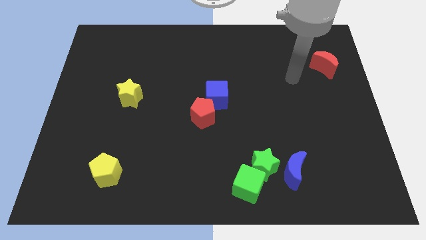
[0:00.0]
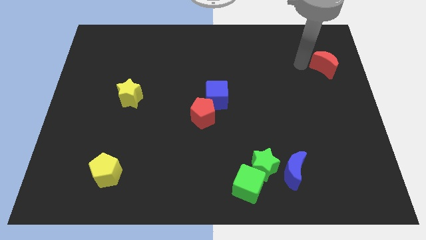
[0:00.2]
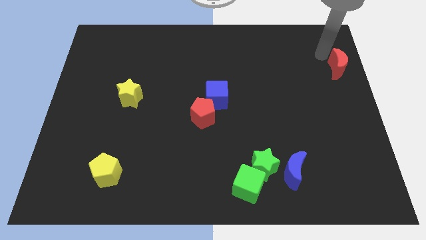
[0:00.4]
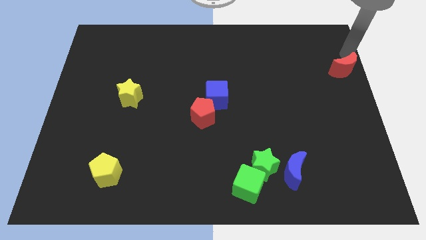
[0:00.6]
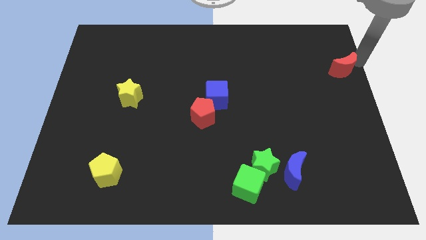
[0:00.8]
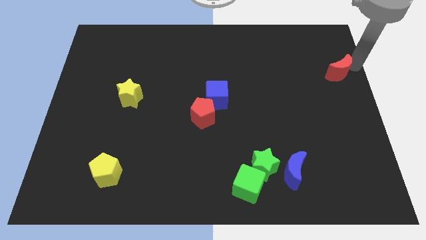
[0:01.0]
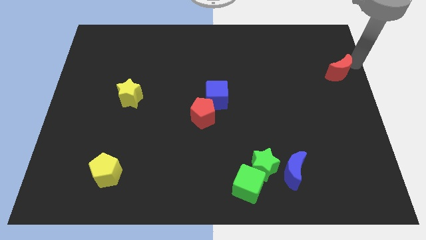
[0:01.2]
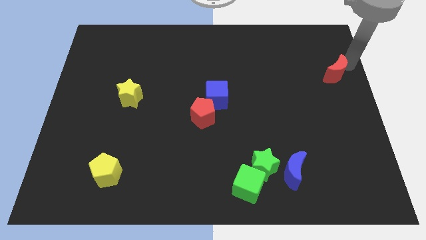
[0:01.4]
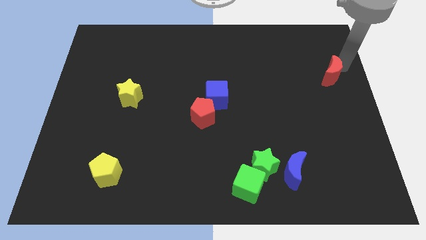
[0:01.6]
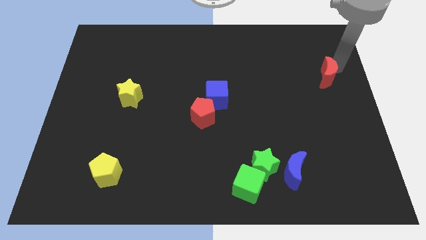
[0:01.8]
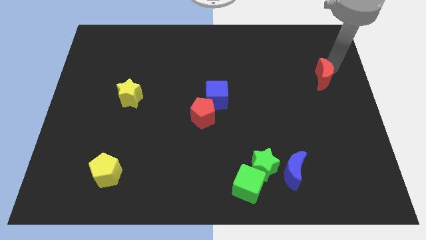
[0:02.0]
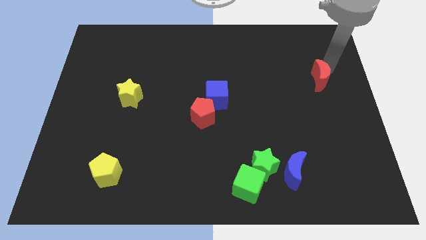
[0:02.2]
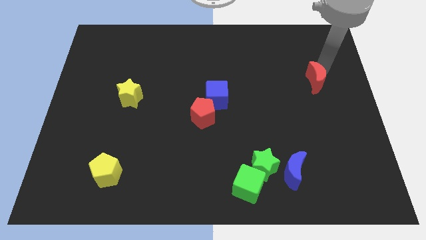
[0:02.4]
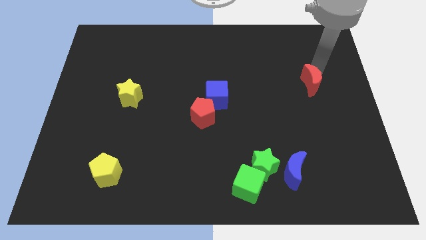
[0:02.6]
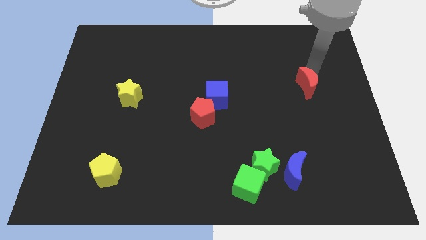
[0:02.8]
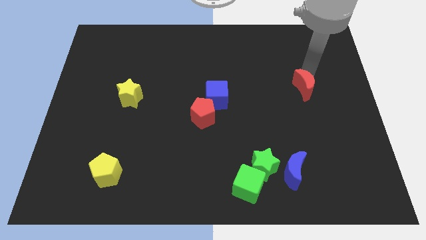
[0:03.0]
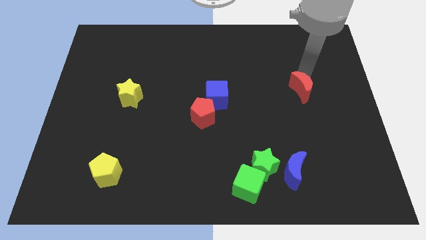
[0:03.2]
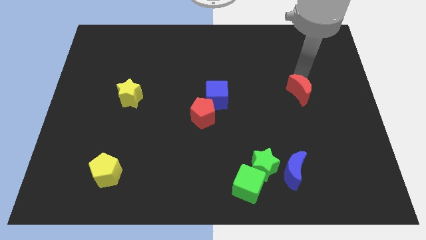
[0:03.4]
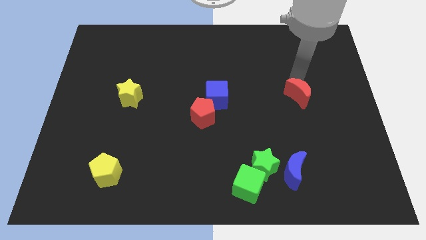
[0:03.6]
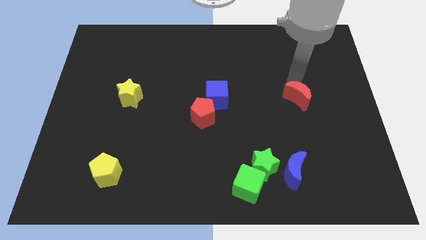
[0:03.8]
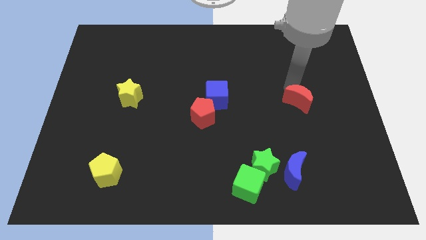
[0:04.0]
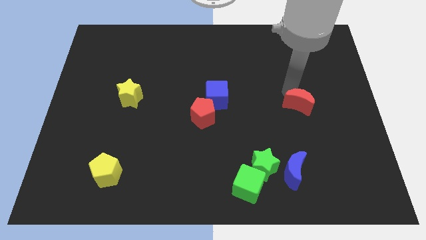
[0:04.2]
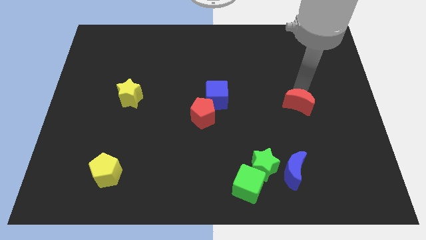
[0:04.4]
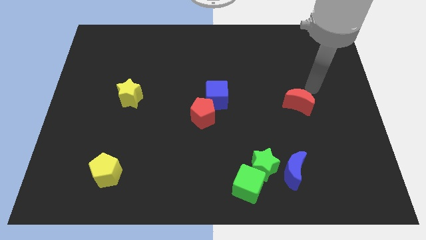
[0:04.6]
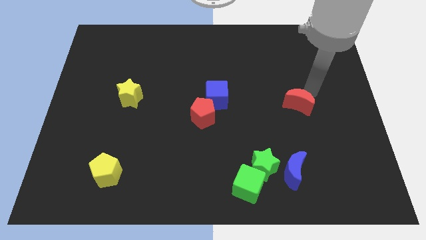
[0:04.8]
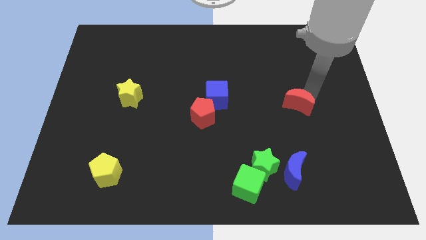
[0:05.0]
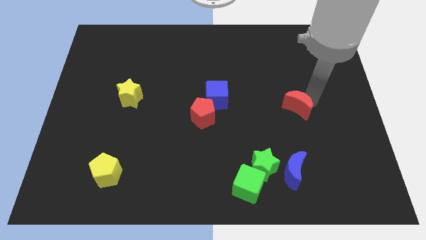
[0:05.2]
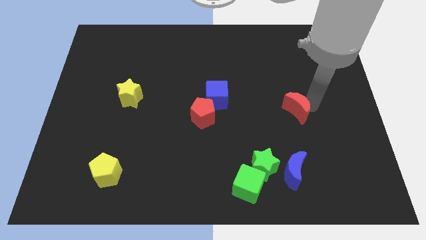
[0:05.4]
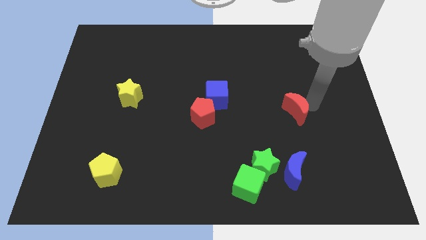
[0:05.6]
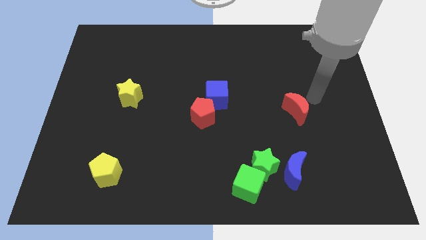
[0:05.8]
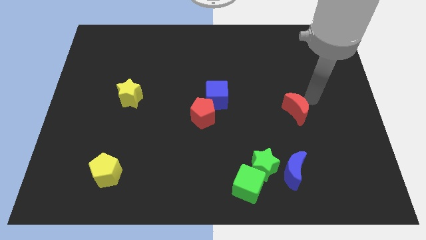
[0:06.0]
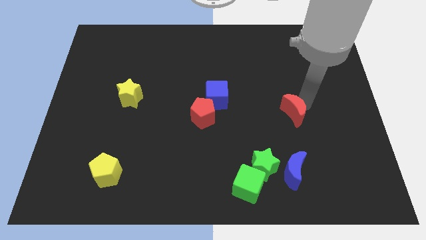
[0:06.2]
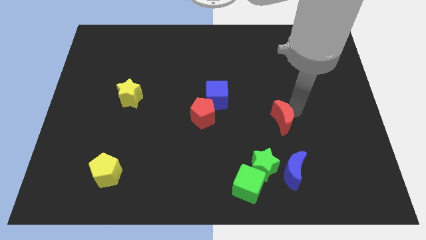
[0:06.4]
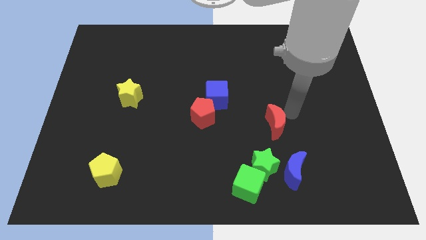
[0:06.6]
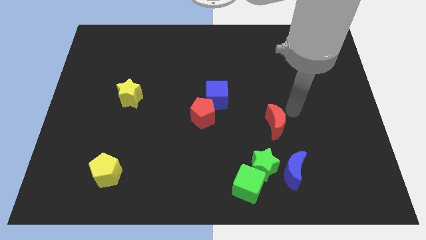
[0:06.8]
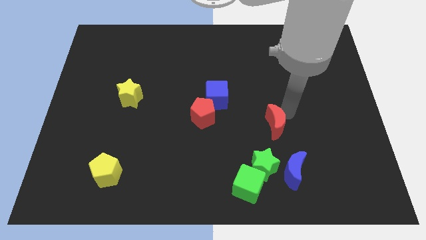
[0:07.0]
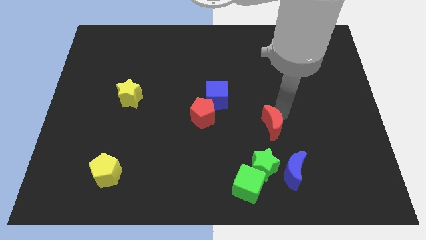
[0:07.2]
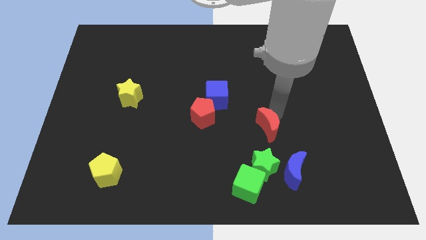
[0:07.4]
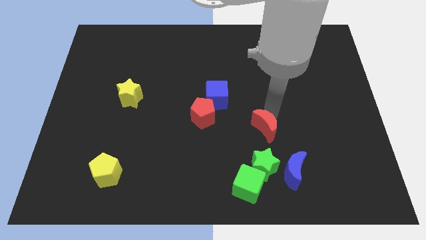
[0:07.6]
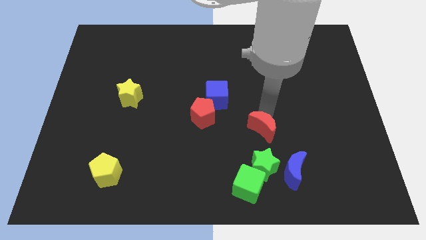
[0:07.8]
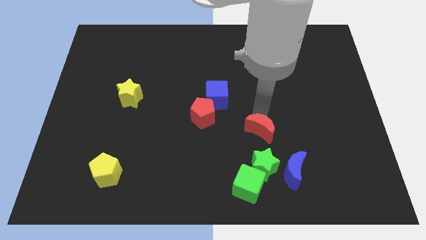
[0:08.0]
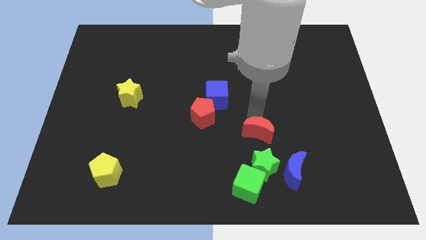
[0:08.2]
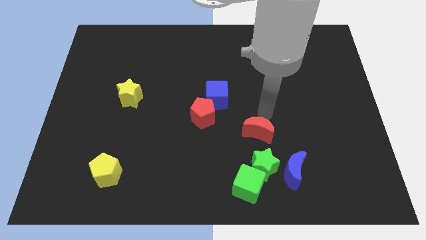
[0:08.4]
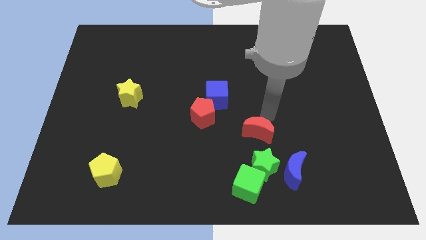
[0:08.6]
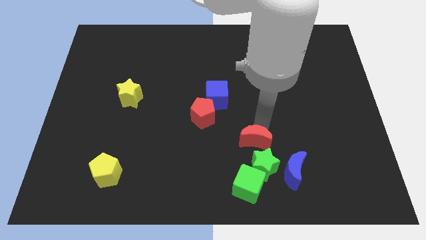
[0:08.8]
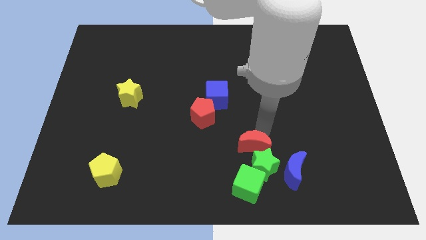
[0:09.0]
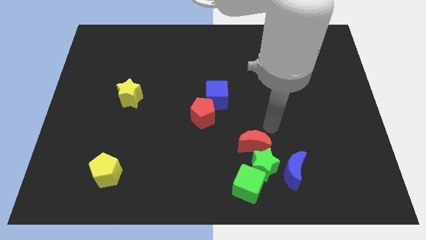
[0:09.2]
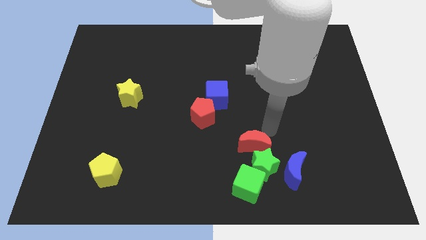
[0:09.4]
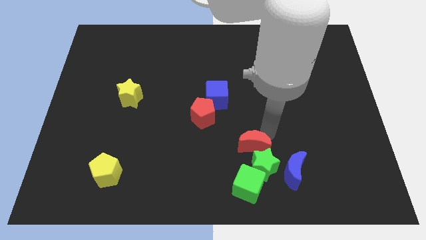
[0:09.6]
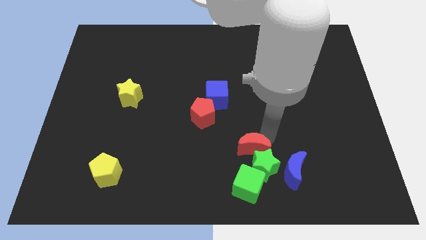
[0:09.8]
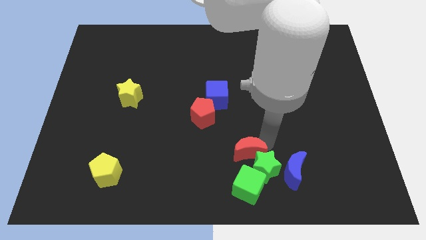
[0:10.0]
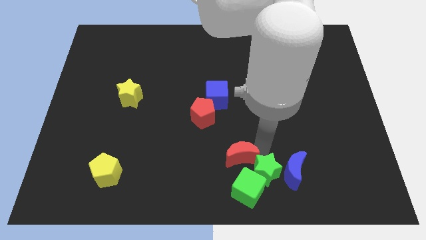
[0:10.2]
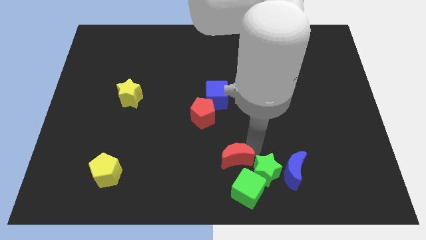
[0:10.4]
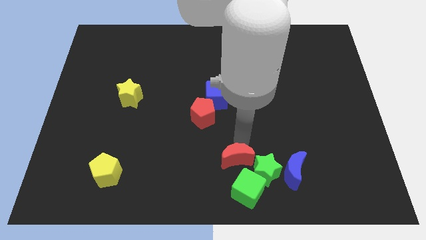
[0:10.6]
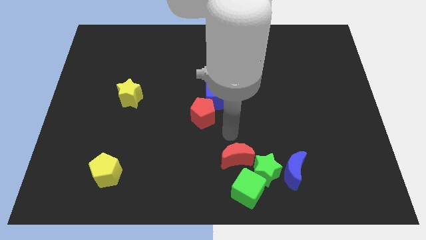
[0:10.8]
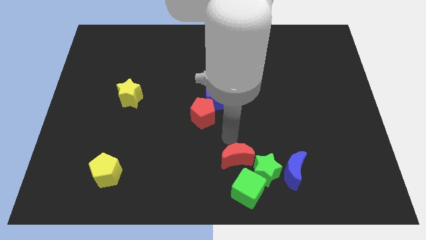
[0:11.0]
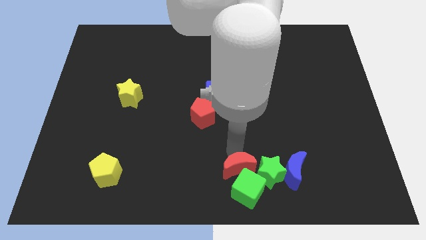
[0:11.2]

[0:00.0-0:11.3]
push the red moon close to the green cube
